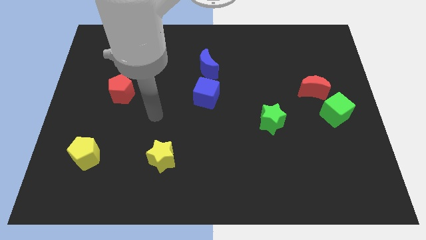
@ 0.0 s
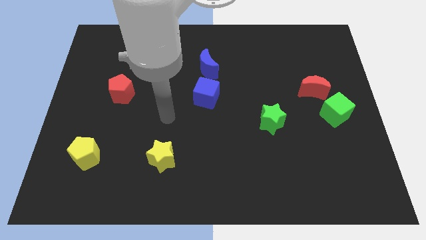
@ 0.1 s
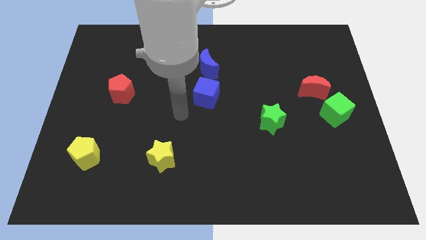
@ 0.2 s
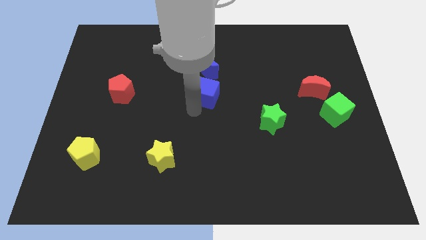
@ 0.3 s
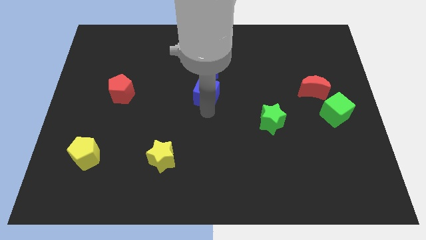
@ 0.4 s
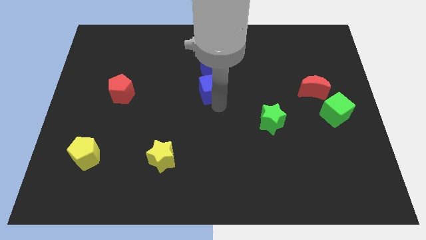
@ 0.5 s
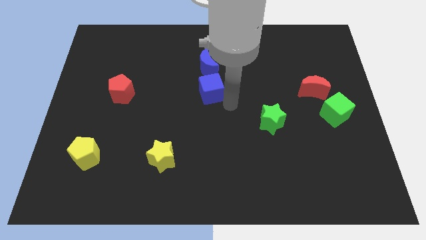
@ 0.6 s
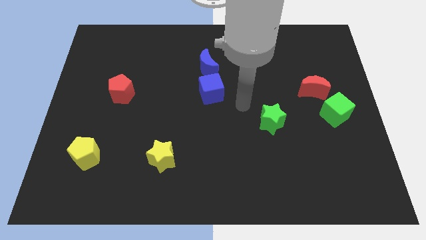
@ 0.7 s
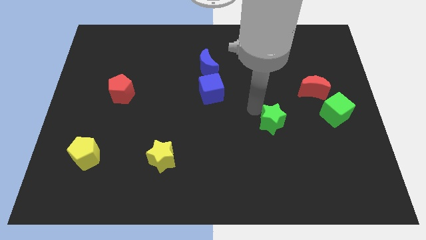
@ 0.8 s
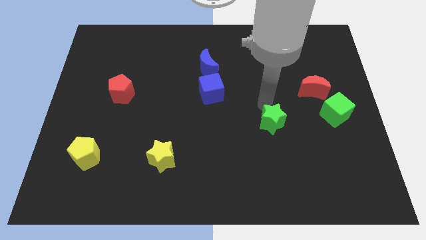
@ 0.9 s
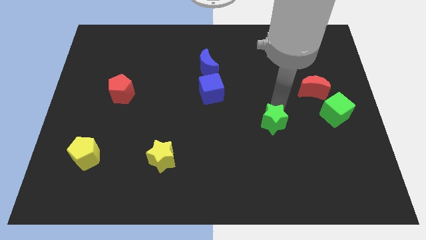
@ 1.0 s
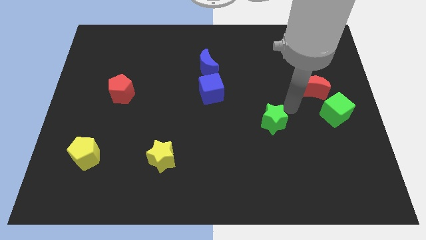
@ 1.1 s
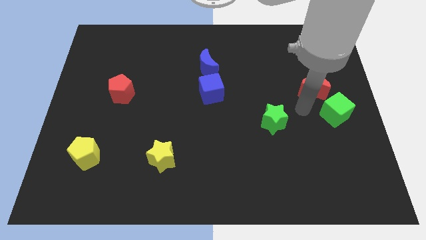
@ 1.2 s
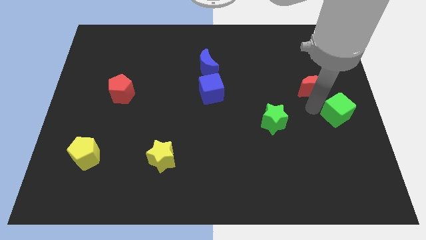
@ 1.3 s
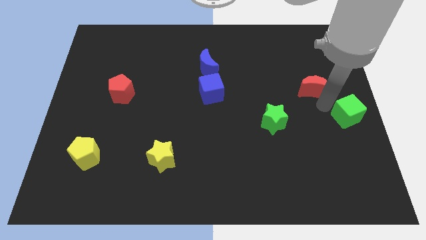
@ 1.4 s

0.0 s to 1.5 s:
move the red moon away from the green cube

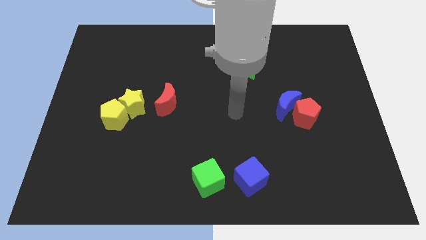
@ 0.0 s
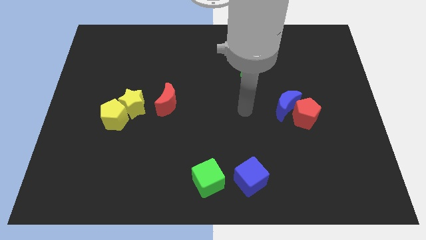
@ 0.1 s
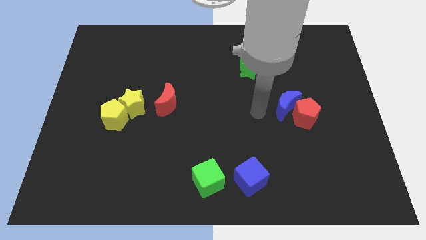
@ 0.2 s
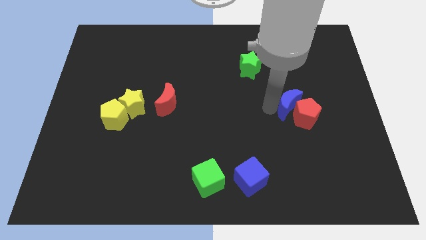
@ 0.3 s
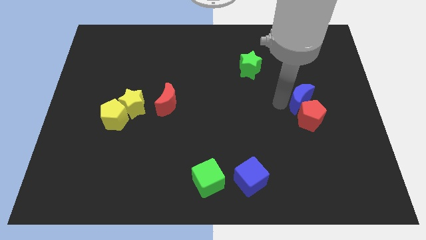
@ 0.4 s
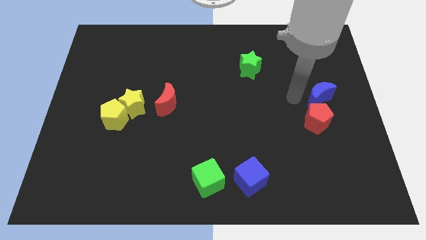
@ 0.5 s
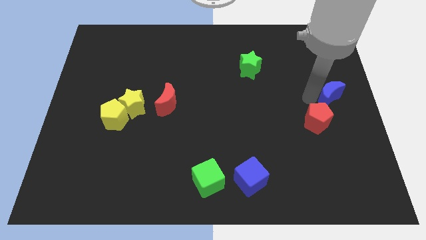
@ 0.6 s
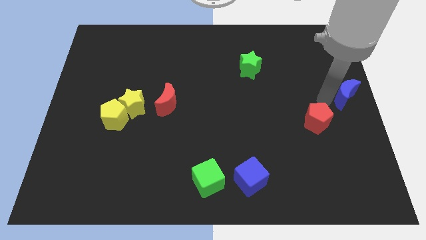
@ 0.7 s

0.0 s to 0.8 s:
move the red pentagon away from the blue moon

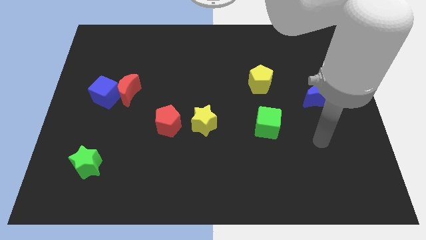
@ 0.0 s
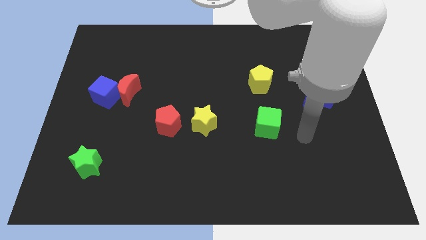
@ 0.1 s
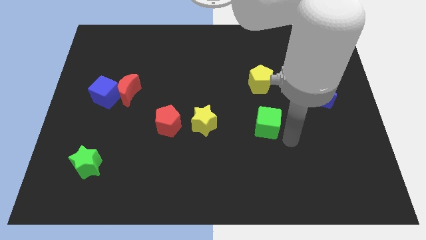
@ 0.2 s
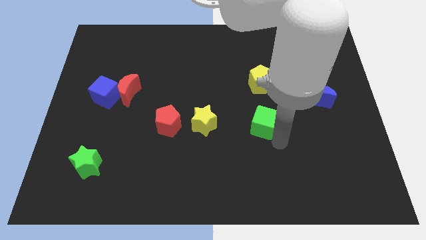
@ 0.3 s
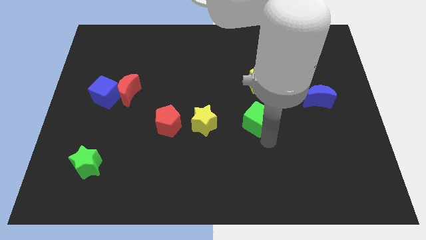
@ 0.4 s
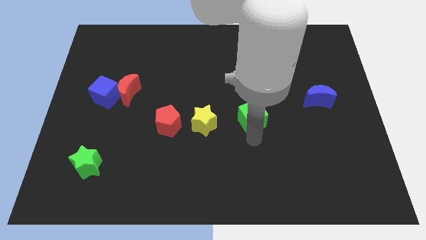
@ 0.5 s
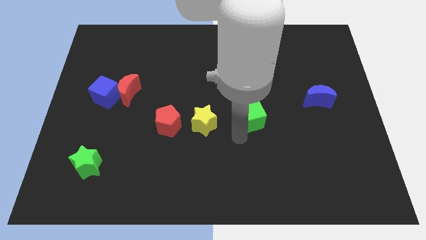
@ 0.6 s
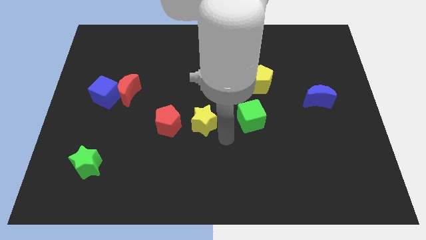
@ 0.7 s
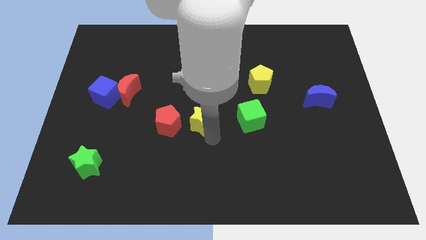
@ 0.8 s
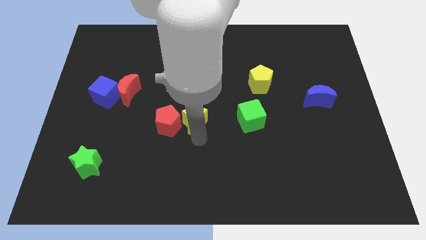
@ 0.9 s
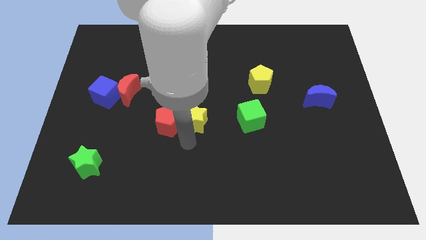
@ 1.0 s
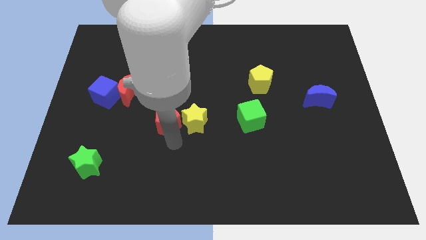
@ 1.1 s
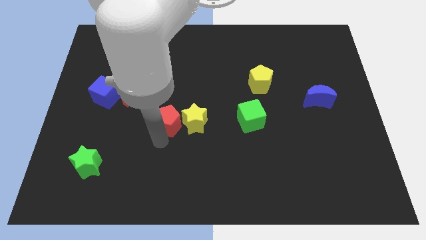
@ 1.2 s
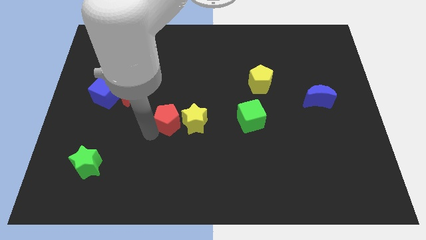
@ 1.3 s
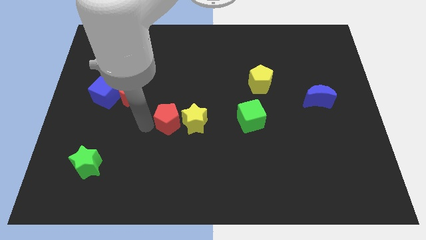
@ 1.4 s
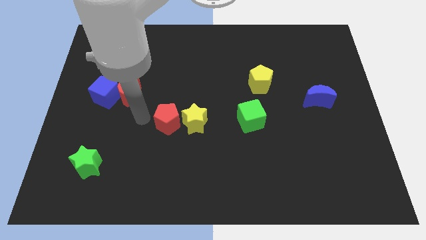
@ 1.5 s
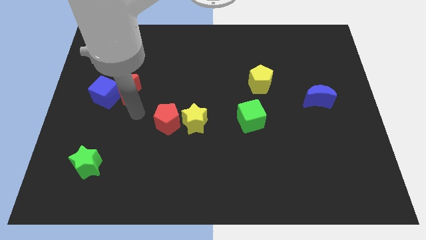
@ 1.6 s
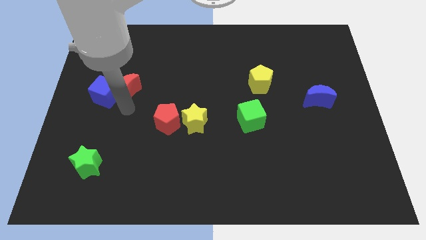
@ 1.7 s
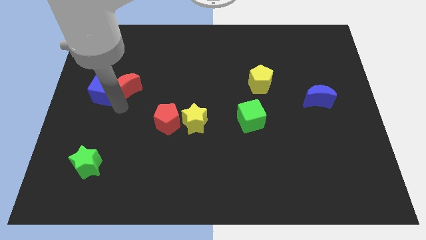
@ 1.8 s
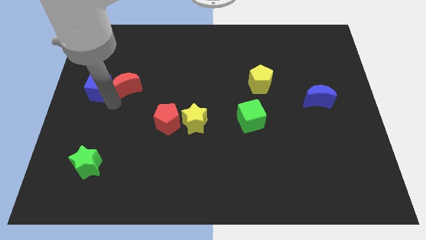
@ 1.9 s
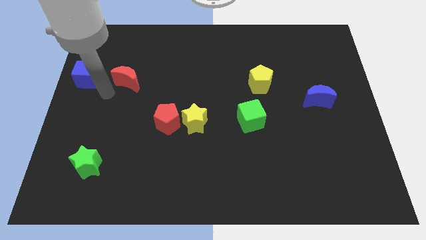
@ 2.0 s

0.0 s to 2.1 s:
move the red moon away from the blue cube

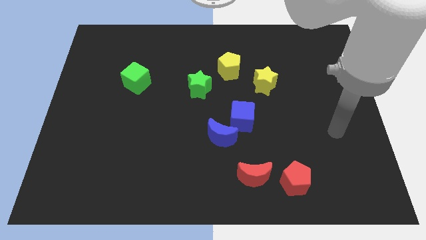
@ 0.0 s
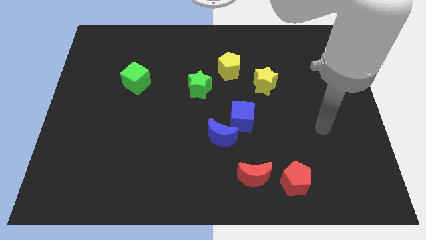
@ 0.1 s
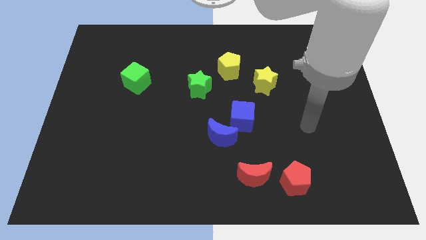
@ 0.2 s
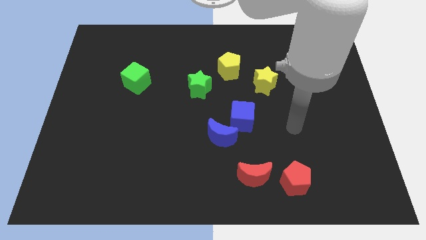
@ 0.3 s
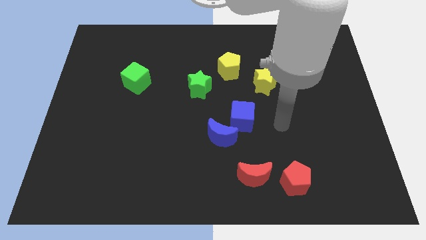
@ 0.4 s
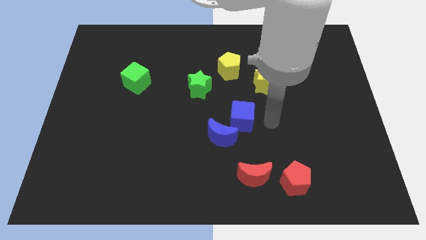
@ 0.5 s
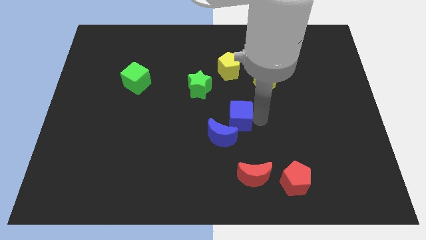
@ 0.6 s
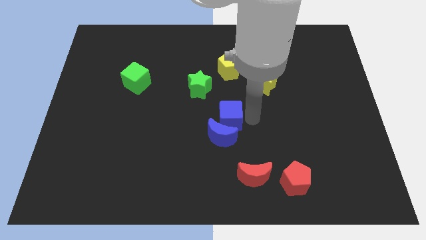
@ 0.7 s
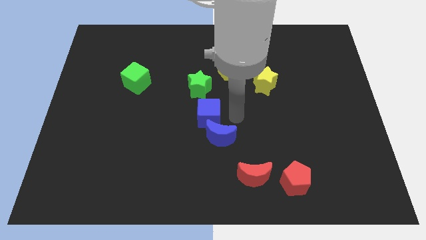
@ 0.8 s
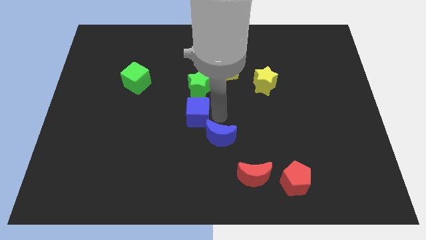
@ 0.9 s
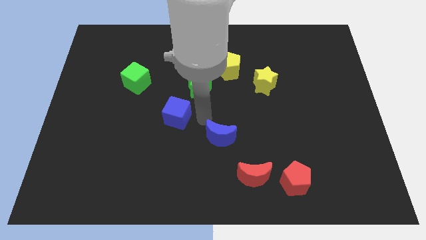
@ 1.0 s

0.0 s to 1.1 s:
move the blue moon away from the blue cube

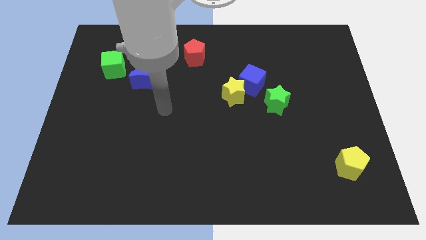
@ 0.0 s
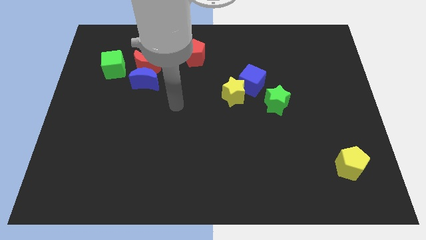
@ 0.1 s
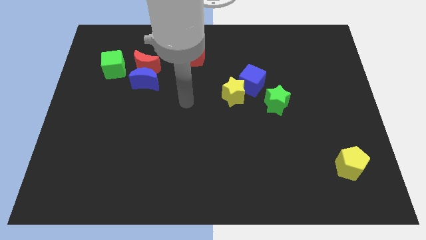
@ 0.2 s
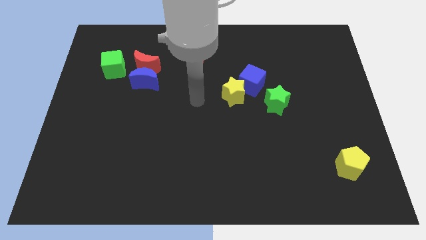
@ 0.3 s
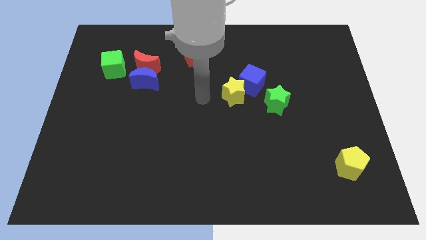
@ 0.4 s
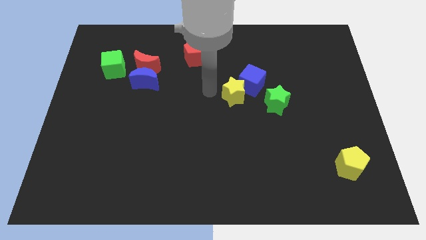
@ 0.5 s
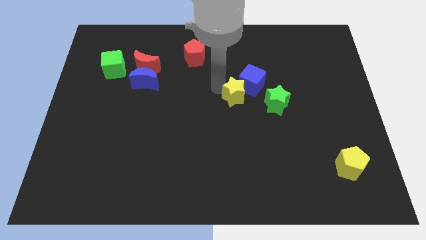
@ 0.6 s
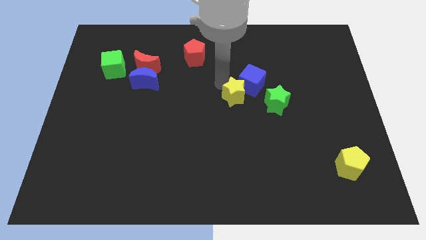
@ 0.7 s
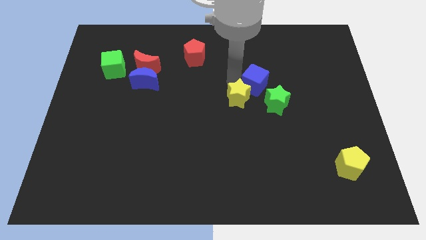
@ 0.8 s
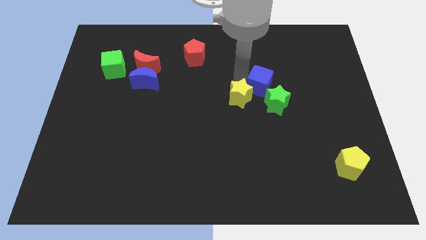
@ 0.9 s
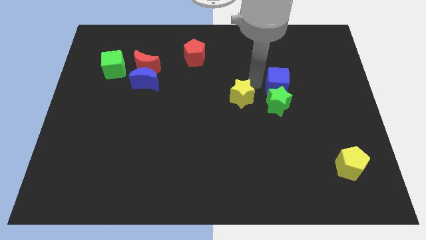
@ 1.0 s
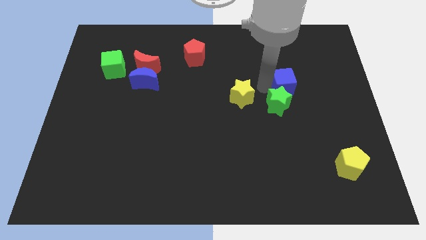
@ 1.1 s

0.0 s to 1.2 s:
separate the yellow star from the blue cube

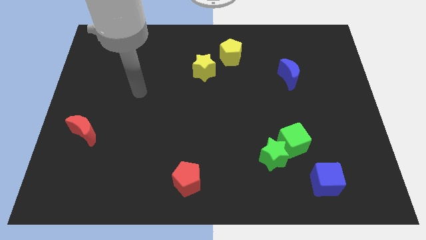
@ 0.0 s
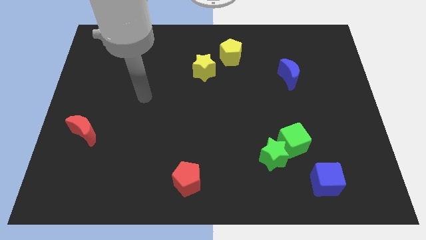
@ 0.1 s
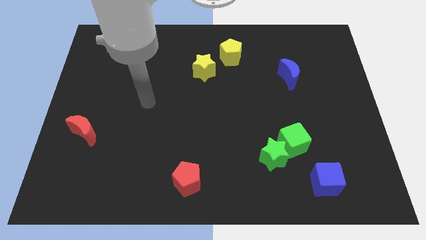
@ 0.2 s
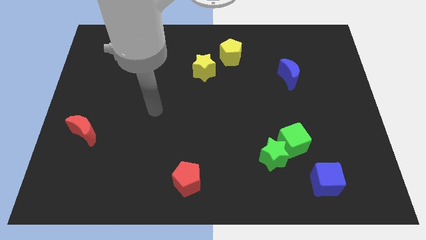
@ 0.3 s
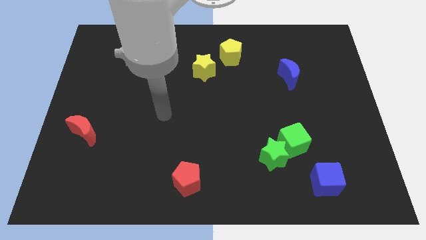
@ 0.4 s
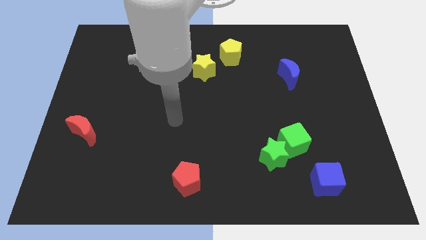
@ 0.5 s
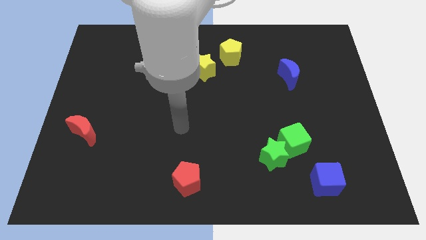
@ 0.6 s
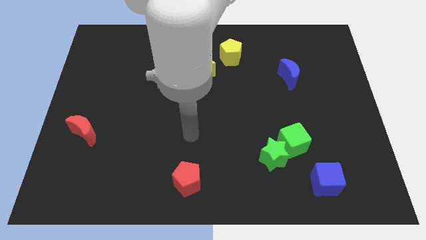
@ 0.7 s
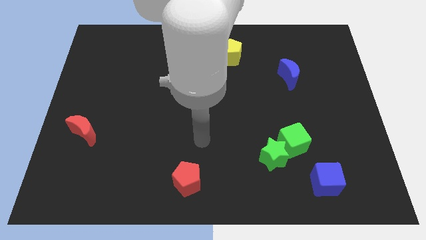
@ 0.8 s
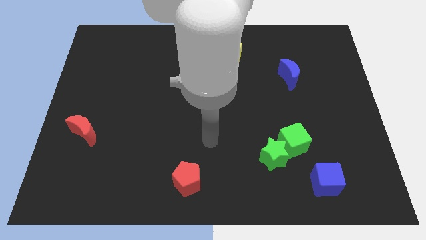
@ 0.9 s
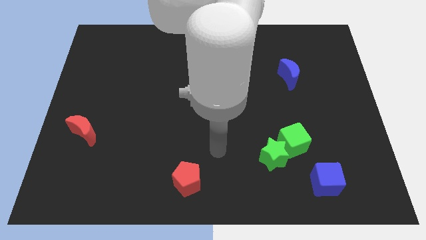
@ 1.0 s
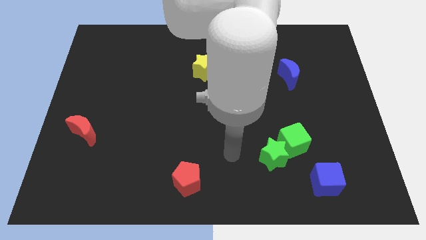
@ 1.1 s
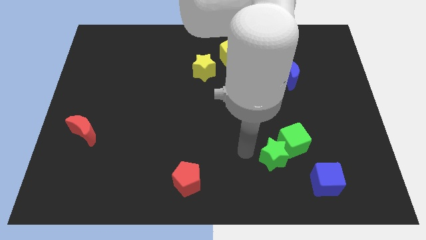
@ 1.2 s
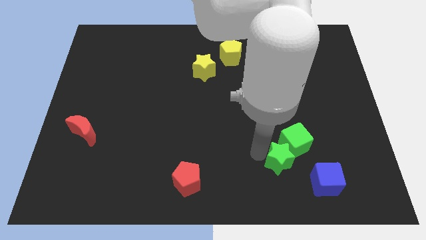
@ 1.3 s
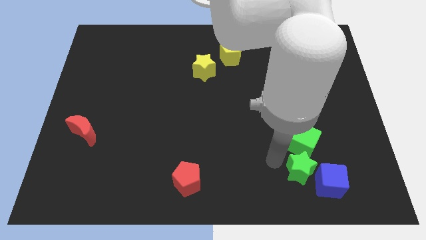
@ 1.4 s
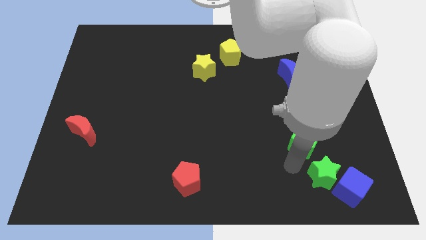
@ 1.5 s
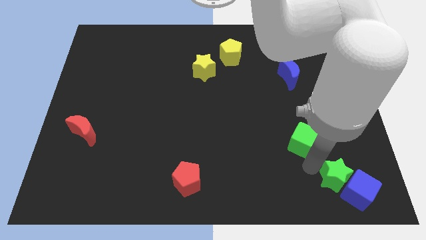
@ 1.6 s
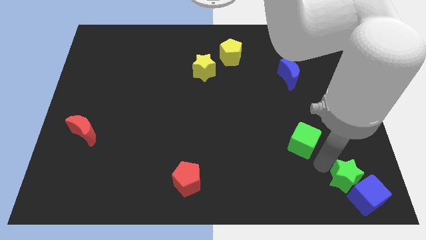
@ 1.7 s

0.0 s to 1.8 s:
separate the green cube from the green star

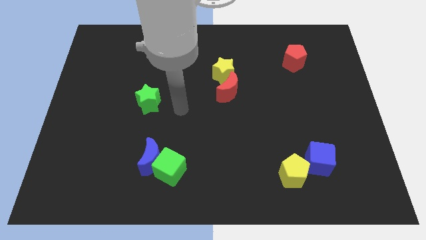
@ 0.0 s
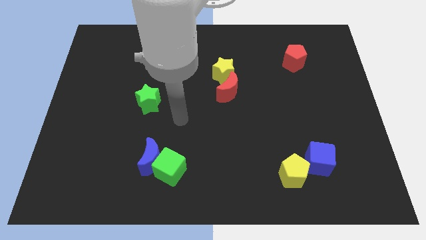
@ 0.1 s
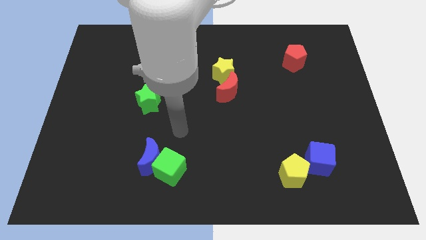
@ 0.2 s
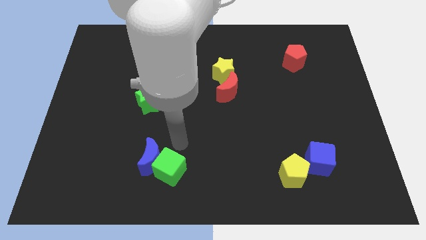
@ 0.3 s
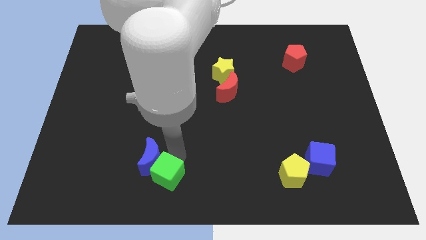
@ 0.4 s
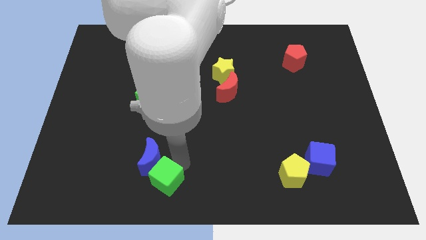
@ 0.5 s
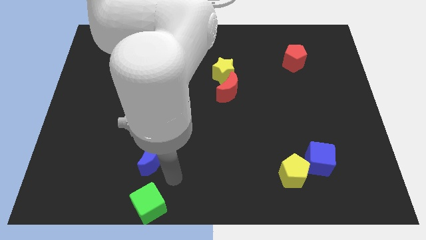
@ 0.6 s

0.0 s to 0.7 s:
separate the blue moon from the green cube

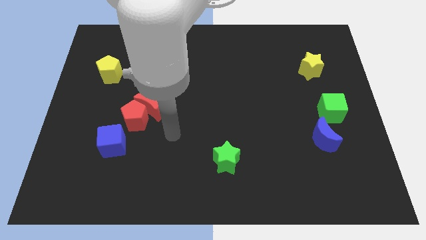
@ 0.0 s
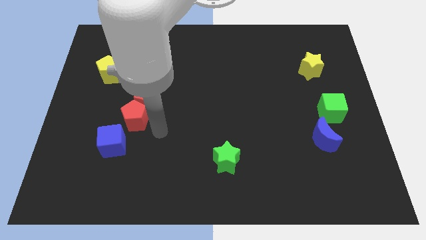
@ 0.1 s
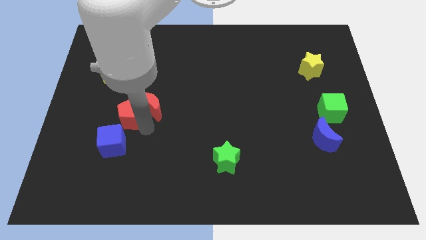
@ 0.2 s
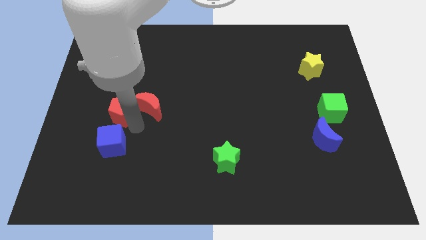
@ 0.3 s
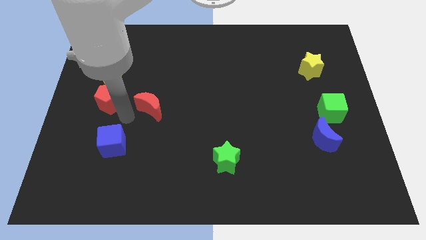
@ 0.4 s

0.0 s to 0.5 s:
pull the red moon apart from the red pentagon
